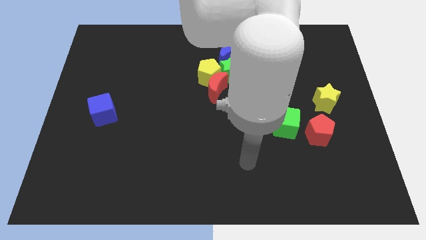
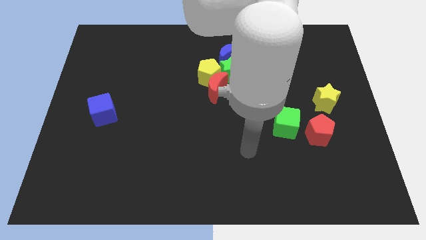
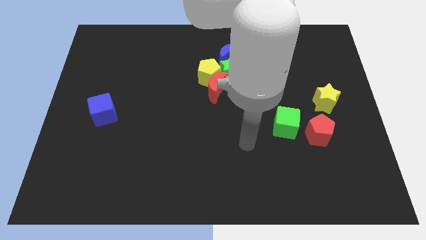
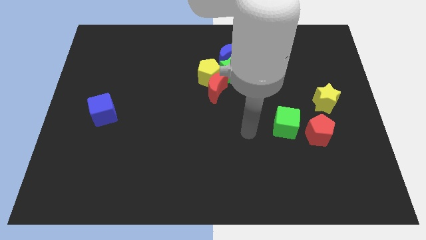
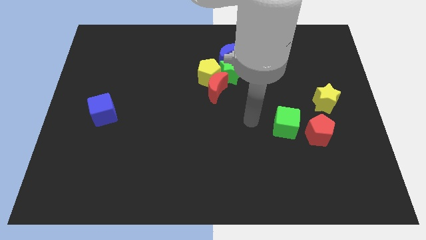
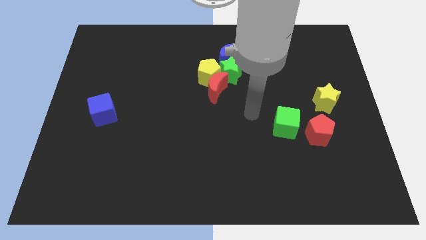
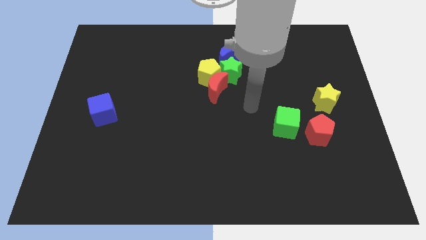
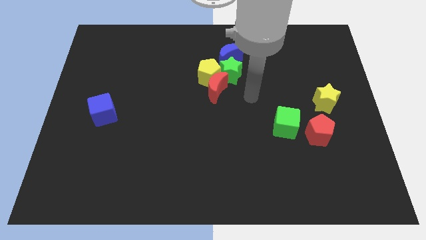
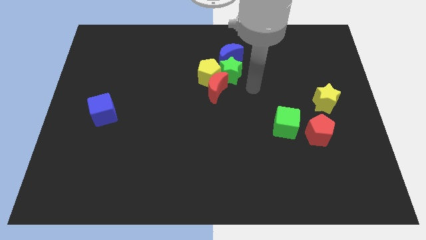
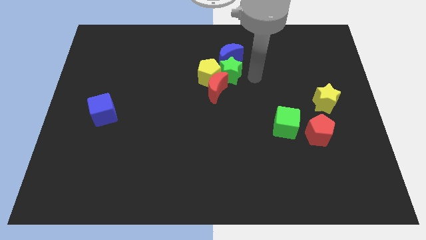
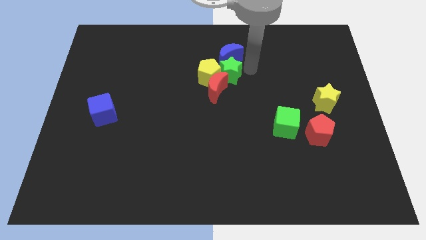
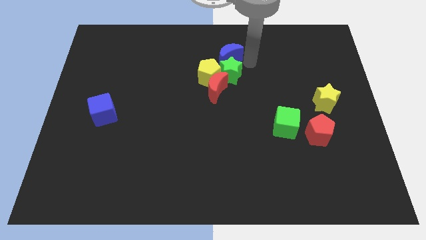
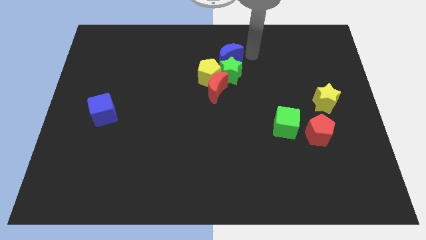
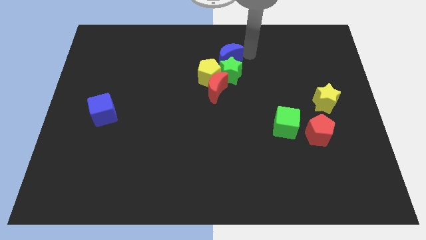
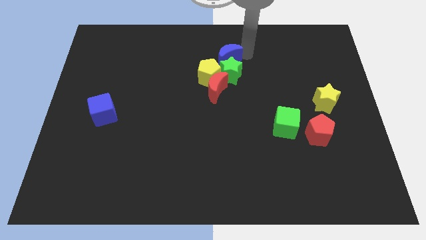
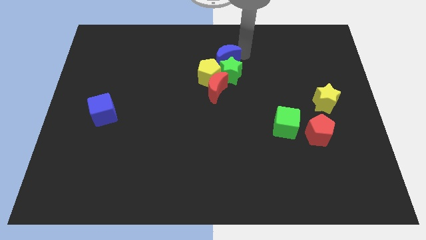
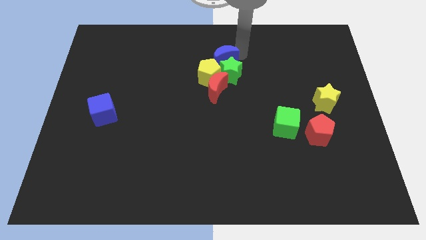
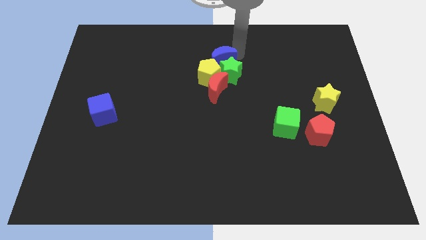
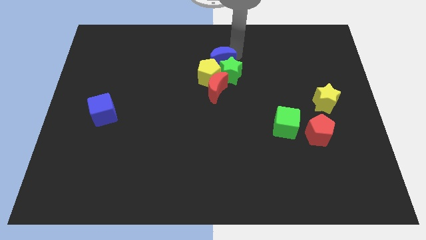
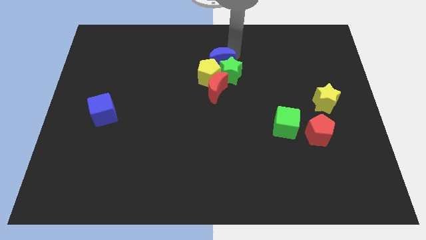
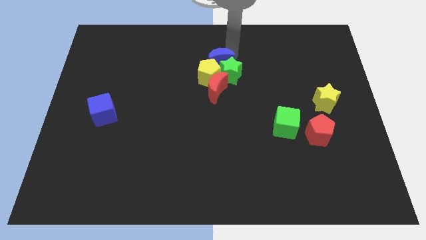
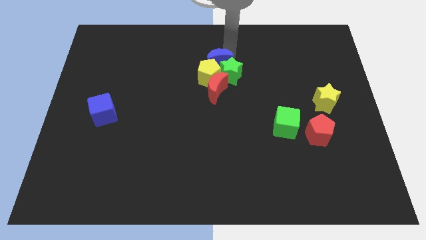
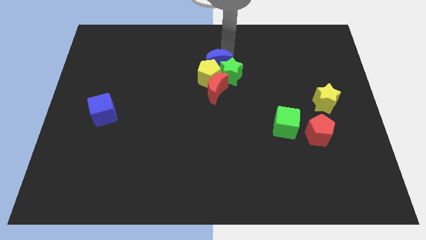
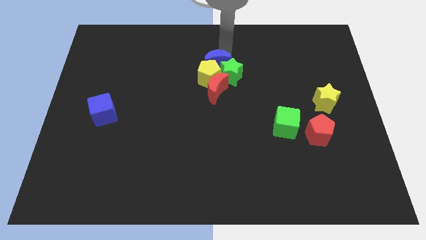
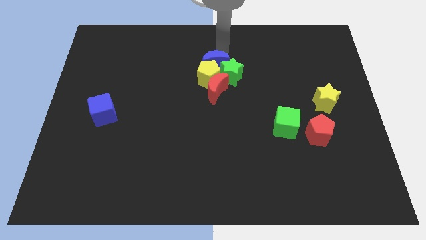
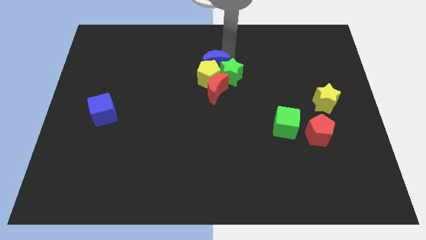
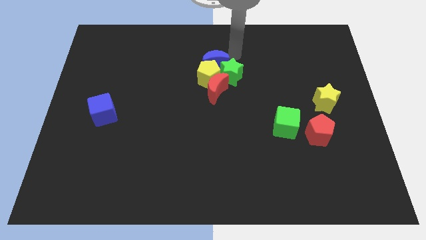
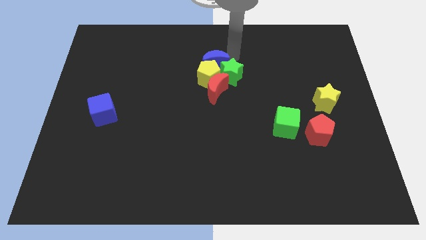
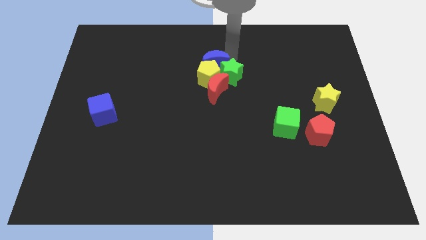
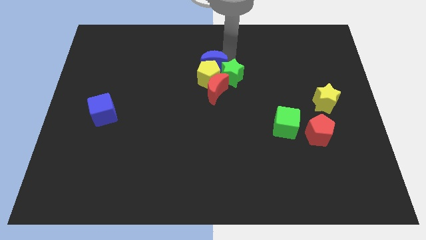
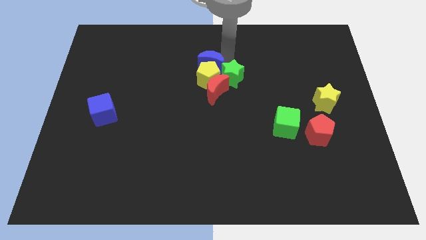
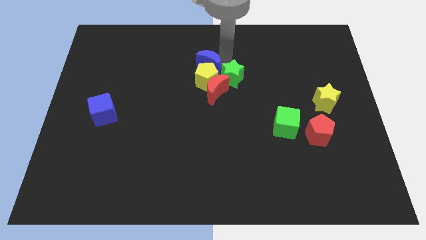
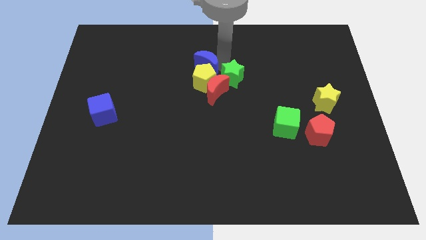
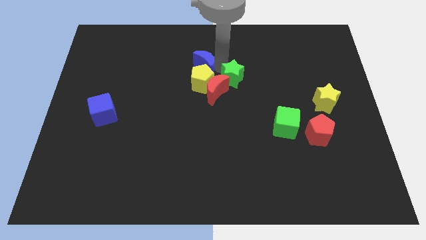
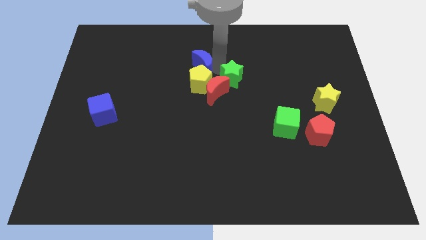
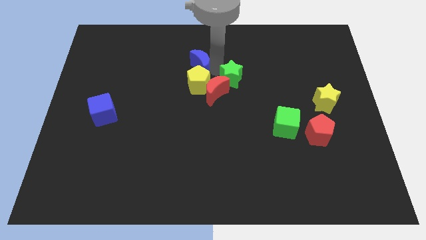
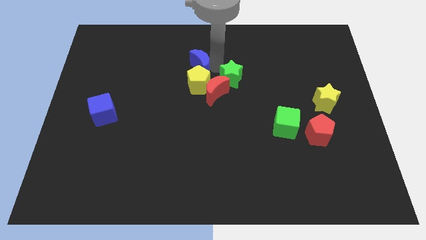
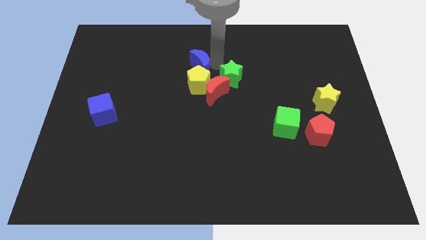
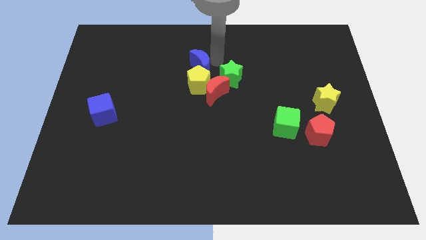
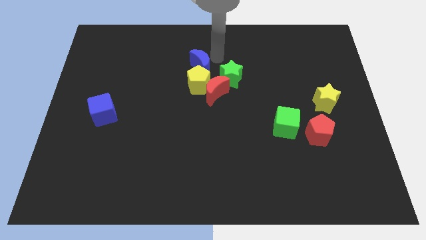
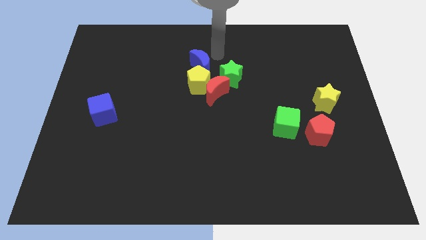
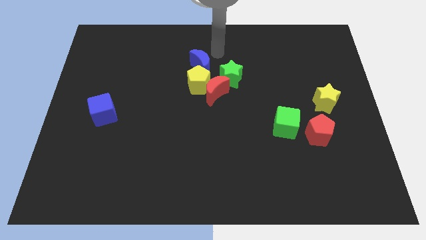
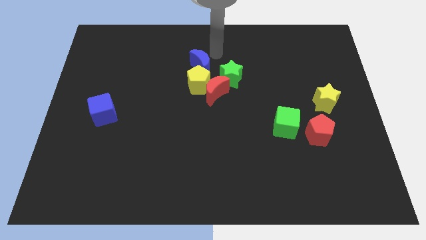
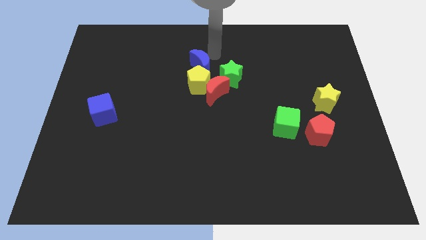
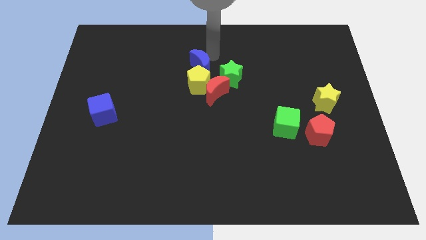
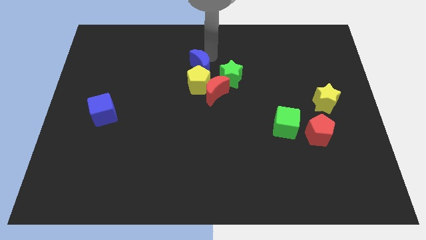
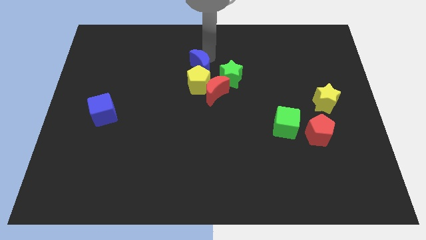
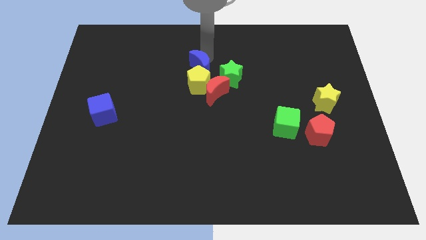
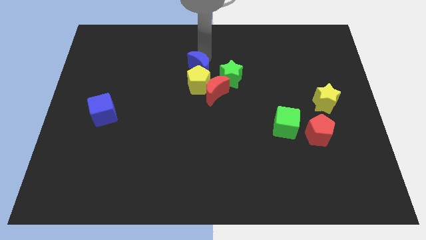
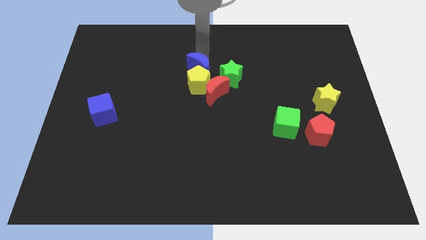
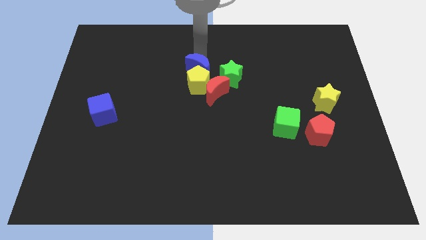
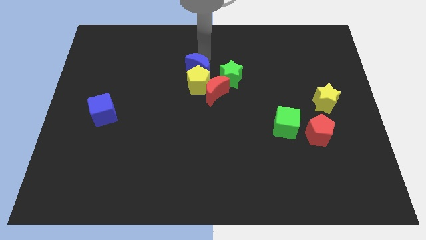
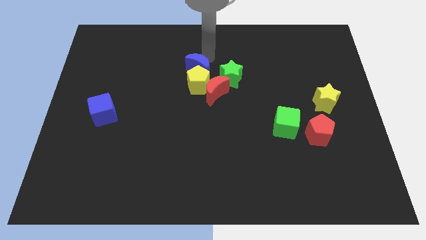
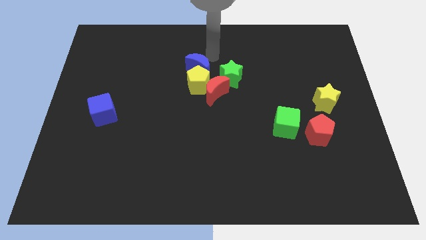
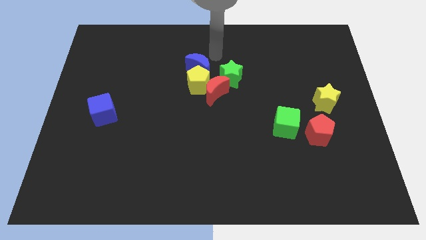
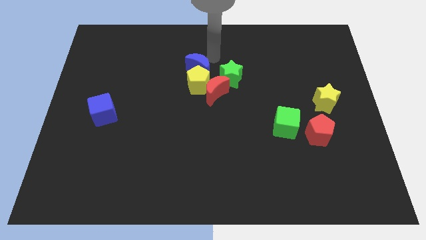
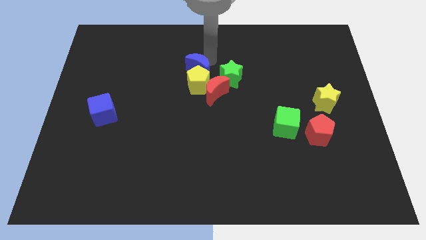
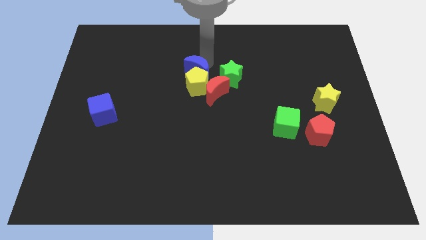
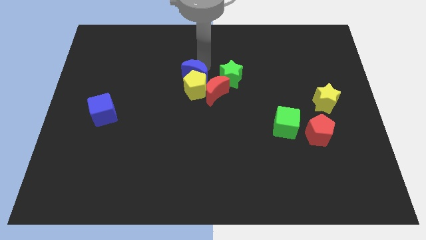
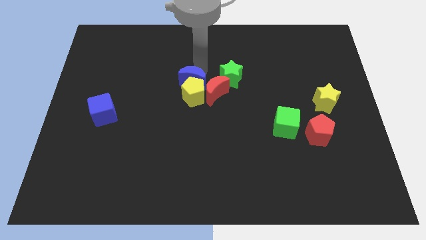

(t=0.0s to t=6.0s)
move the blue moon to the left of the red moon

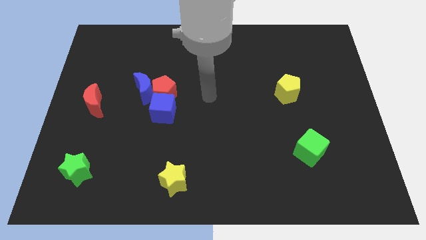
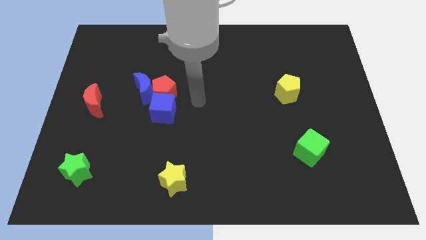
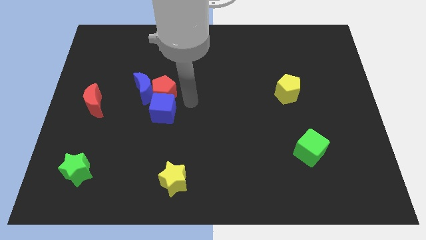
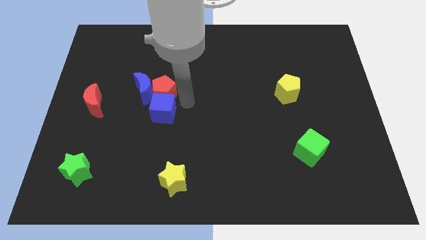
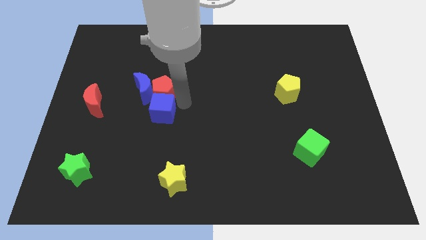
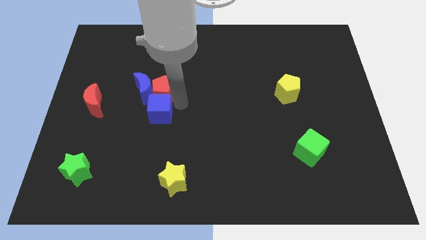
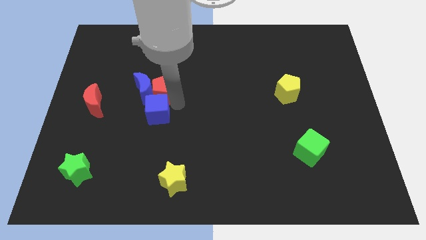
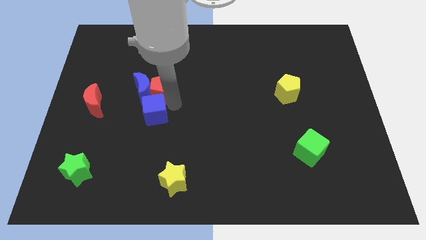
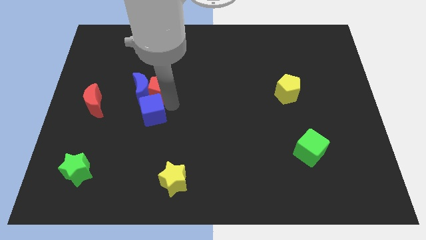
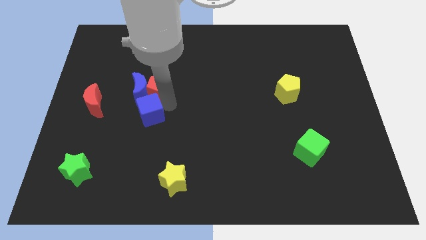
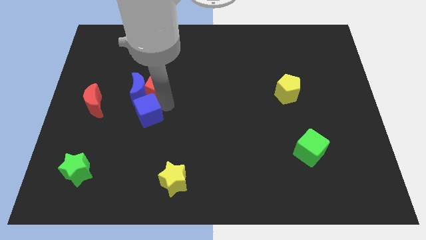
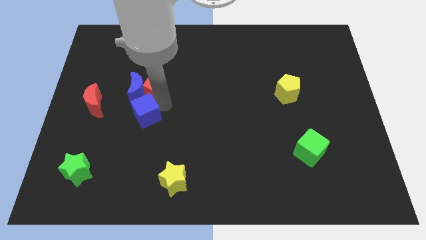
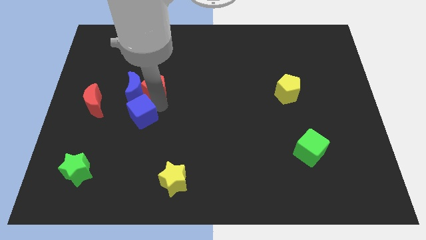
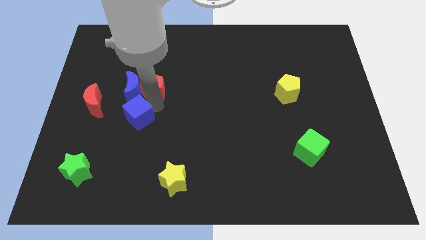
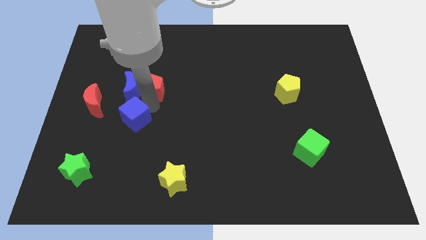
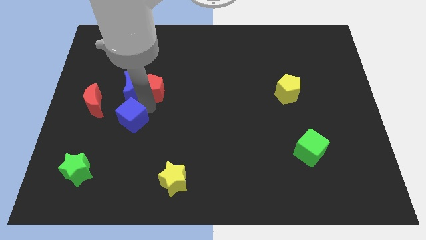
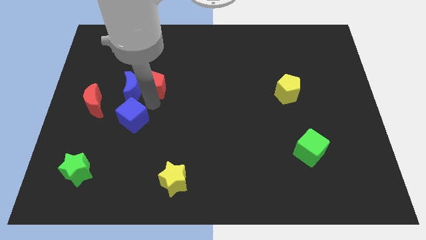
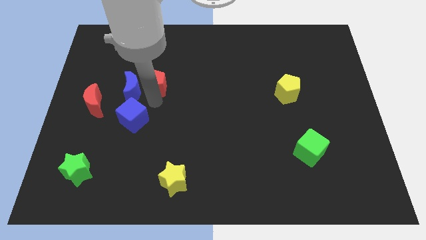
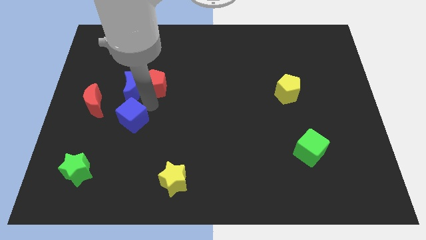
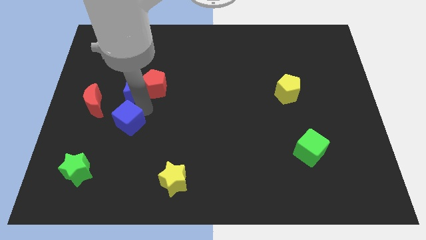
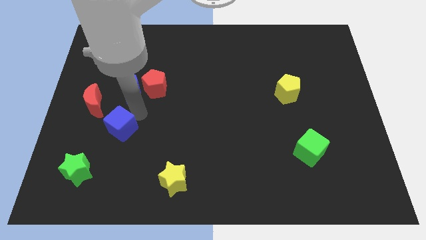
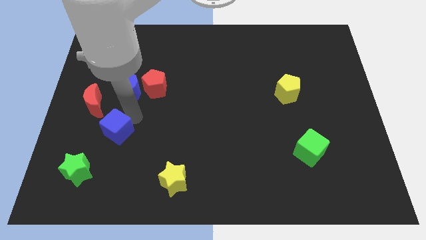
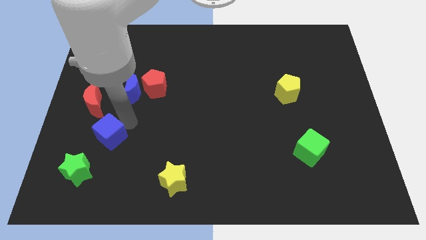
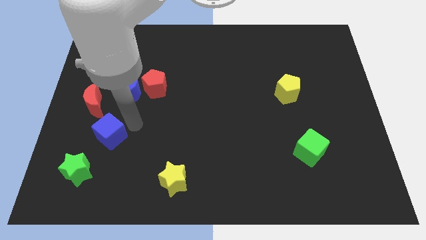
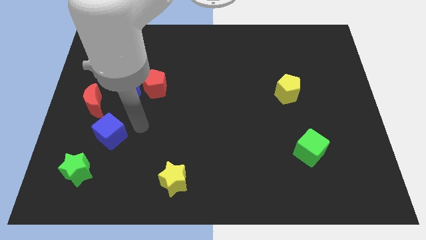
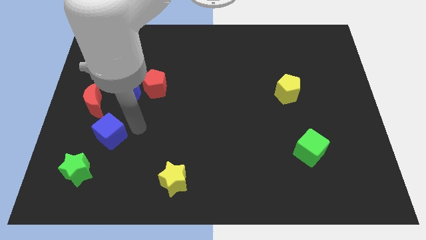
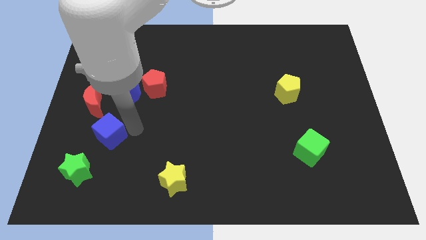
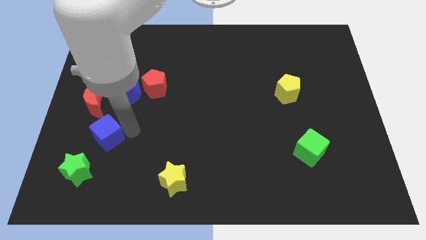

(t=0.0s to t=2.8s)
move the blue cube to the bottom of the red moon
